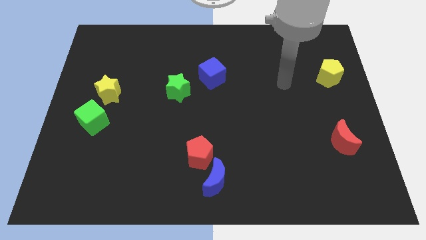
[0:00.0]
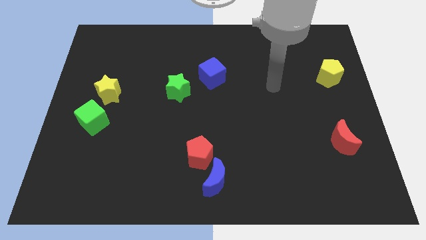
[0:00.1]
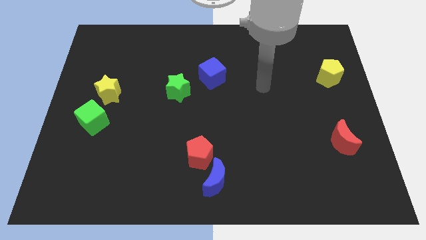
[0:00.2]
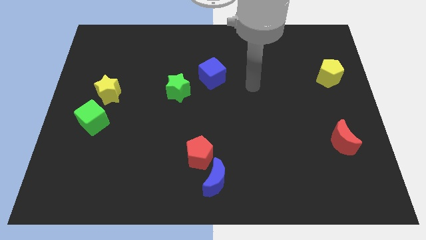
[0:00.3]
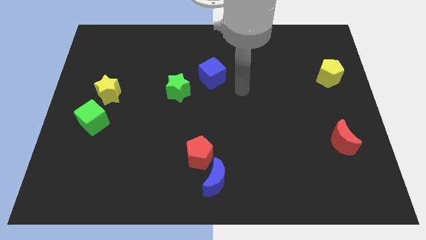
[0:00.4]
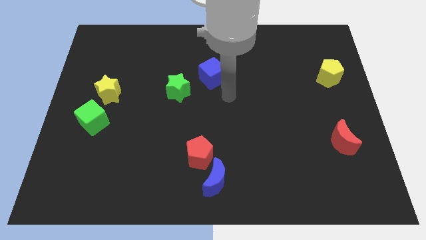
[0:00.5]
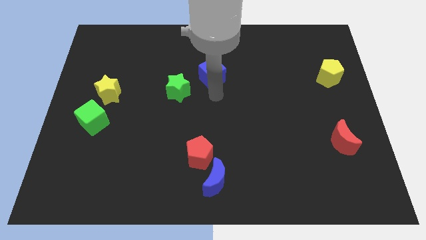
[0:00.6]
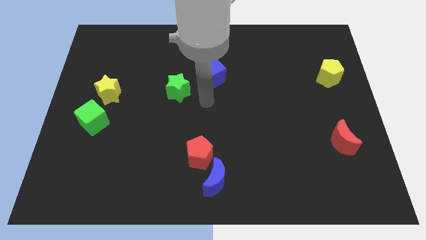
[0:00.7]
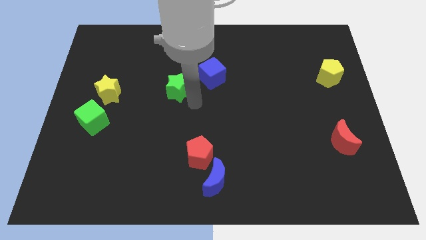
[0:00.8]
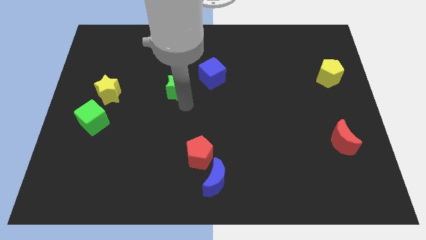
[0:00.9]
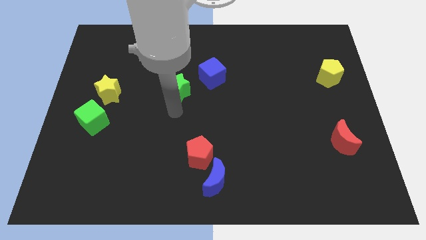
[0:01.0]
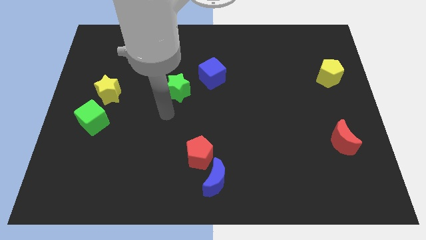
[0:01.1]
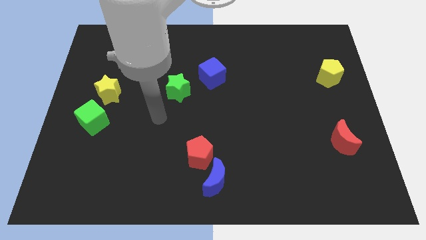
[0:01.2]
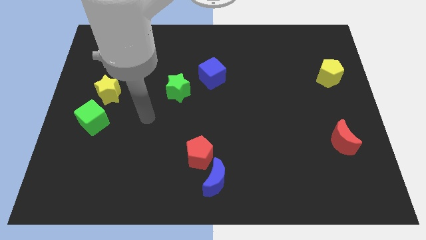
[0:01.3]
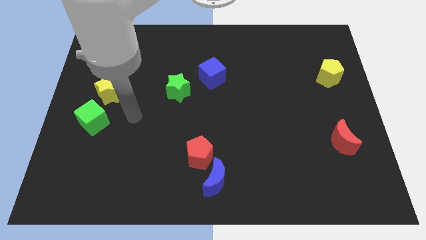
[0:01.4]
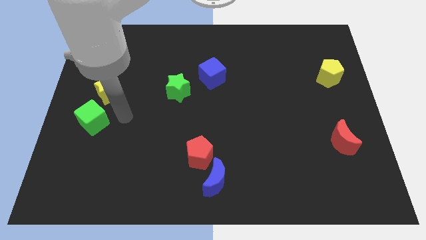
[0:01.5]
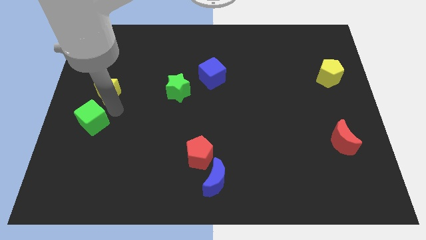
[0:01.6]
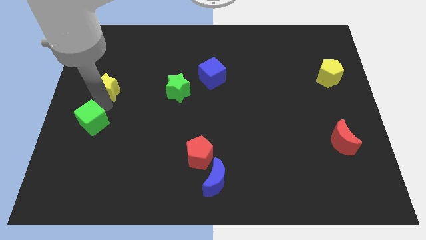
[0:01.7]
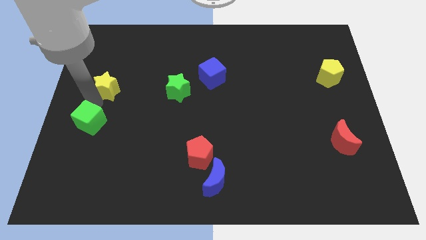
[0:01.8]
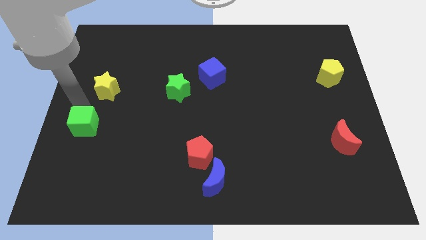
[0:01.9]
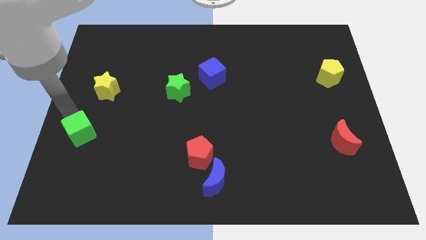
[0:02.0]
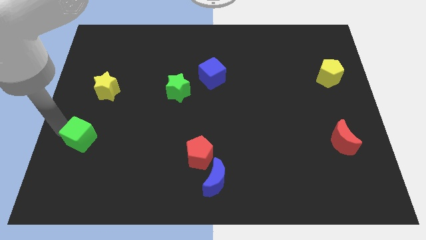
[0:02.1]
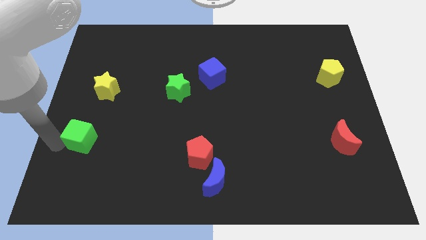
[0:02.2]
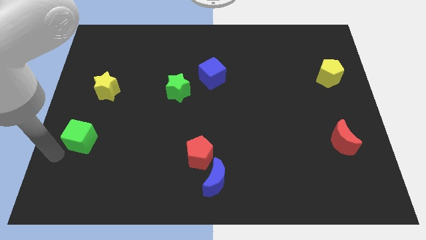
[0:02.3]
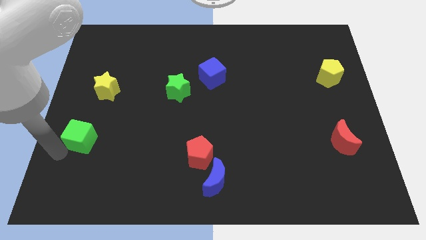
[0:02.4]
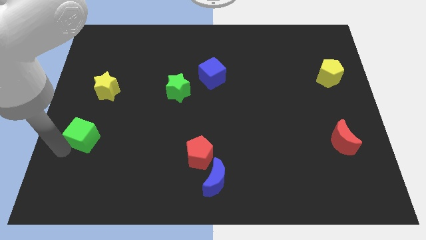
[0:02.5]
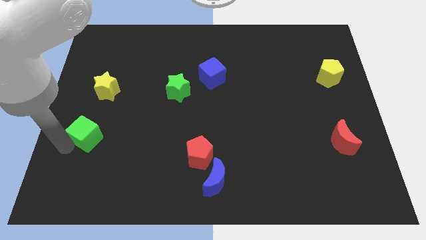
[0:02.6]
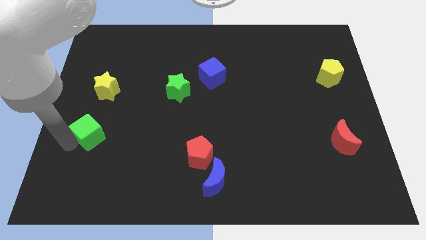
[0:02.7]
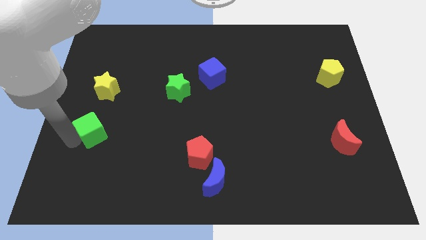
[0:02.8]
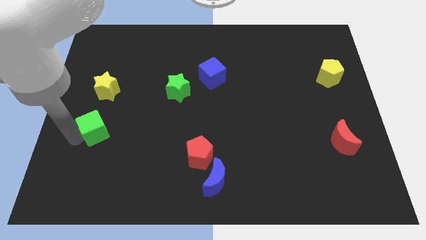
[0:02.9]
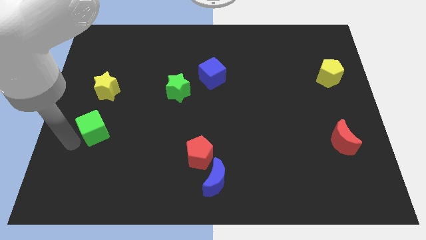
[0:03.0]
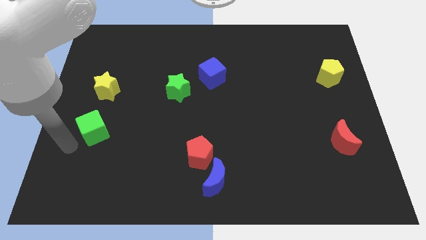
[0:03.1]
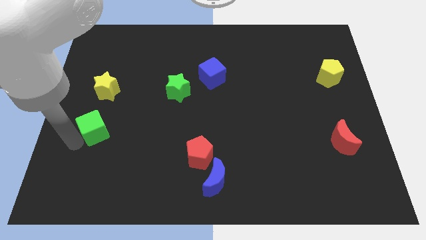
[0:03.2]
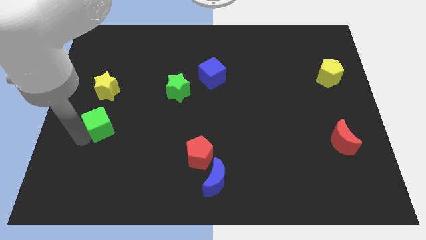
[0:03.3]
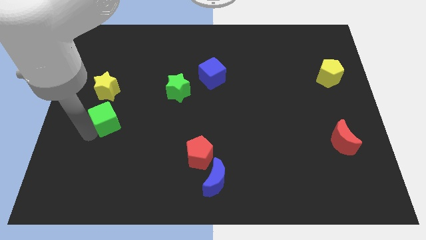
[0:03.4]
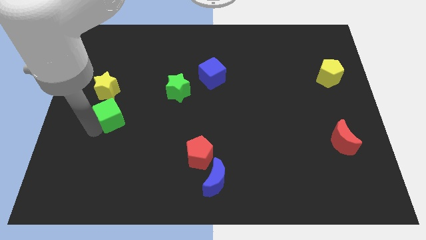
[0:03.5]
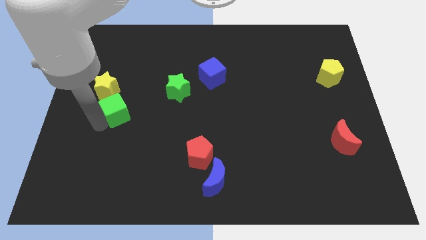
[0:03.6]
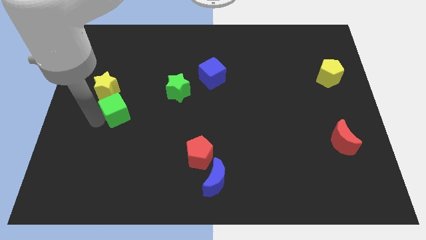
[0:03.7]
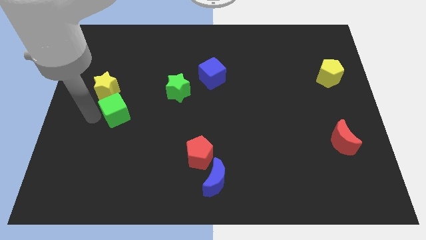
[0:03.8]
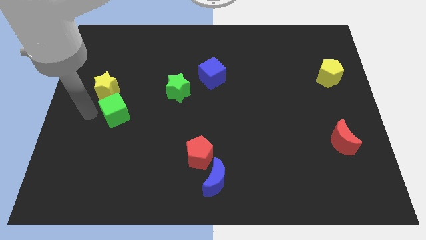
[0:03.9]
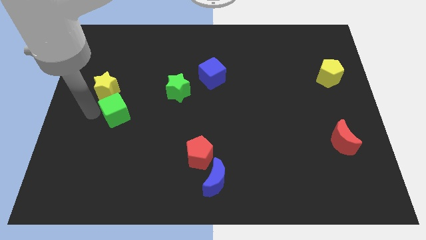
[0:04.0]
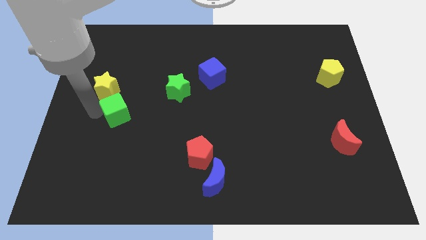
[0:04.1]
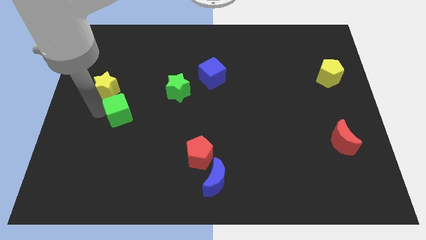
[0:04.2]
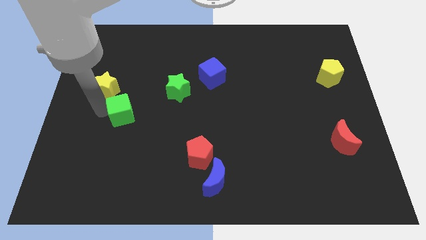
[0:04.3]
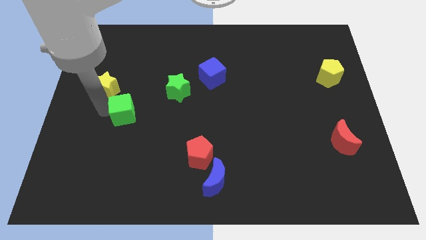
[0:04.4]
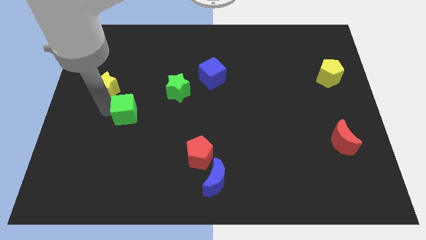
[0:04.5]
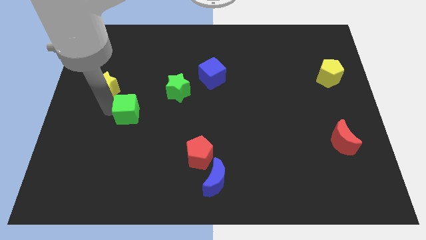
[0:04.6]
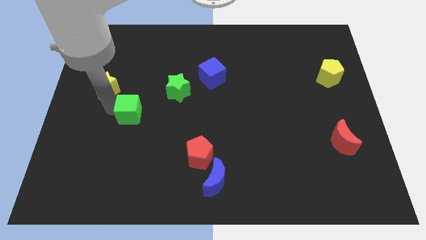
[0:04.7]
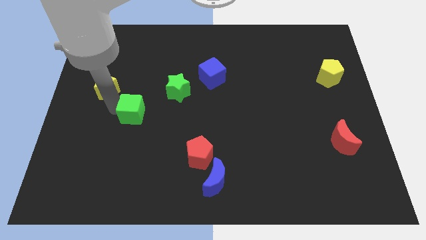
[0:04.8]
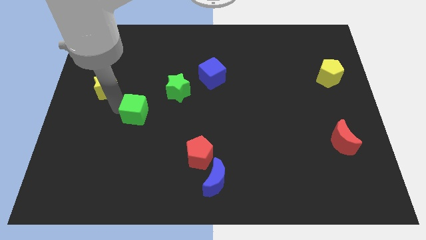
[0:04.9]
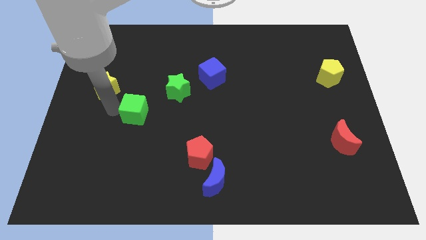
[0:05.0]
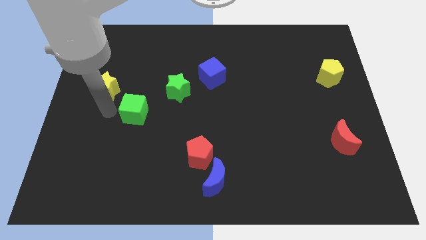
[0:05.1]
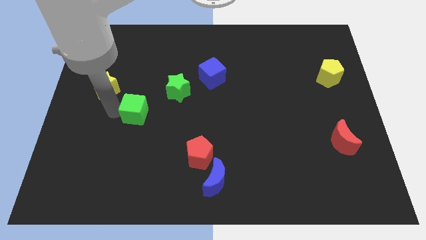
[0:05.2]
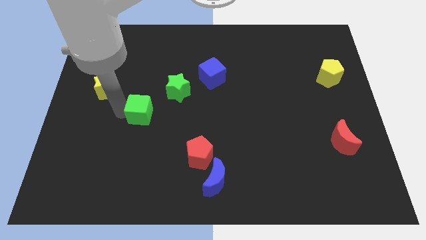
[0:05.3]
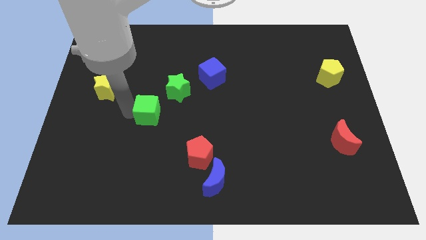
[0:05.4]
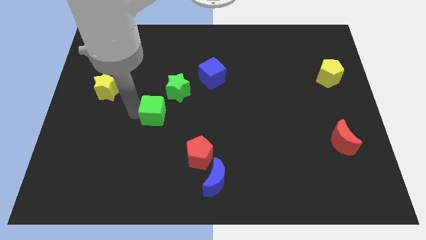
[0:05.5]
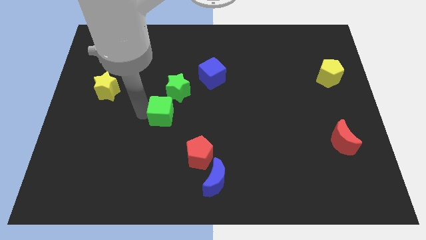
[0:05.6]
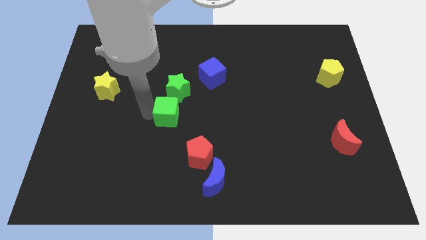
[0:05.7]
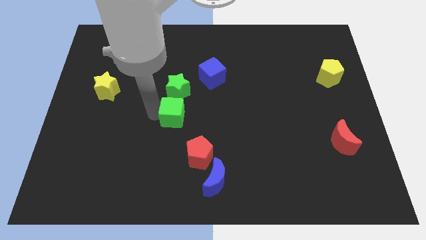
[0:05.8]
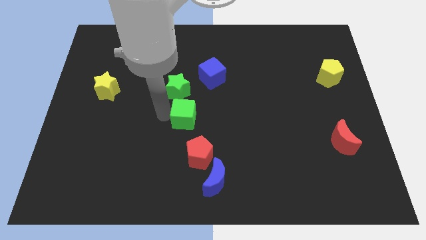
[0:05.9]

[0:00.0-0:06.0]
move the green cube right

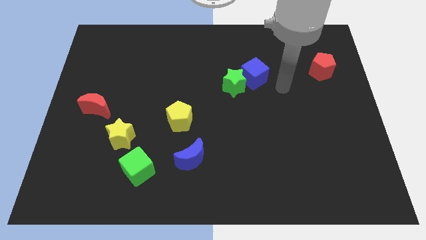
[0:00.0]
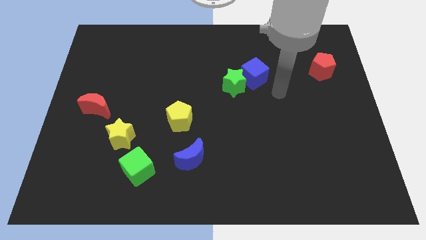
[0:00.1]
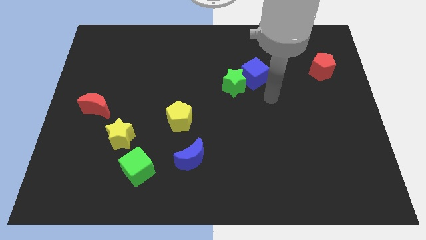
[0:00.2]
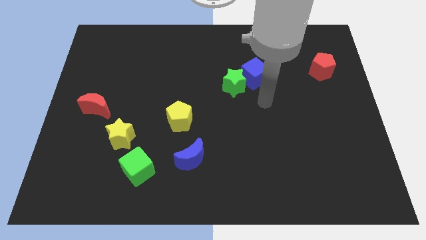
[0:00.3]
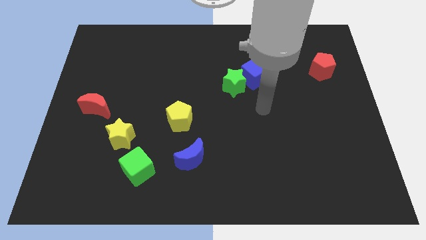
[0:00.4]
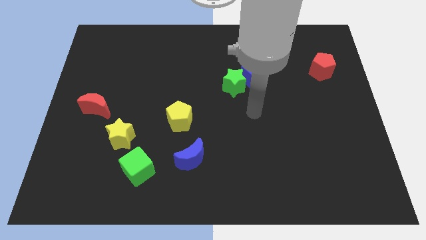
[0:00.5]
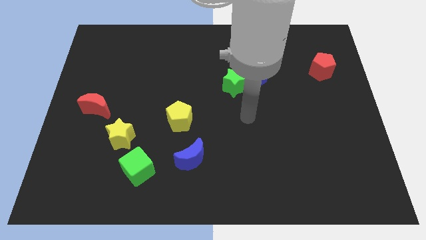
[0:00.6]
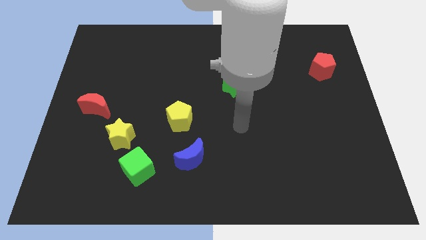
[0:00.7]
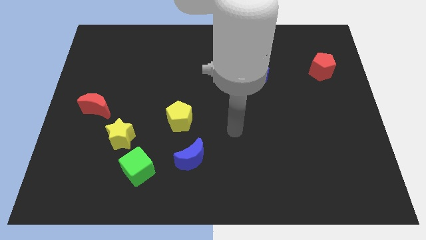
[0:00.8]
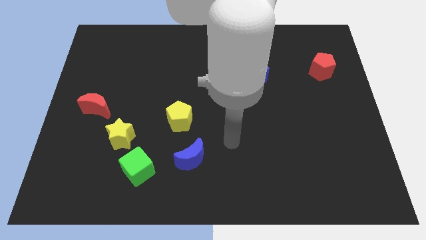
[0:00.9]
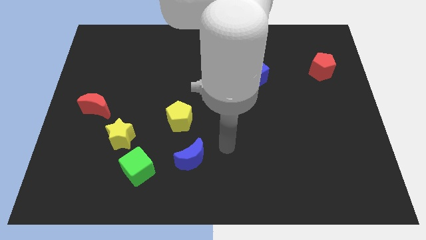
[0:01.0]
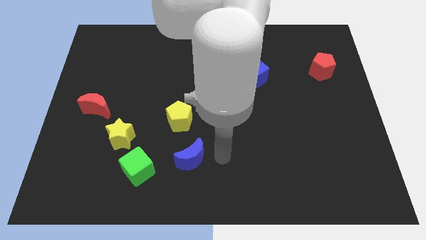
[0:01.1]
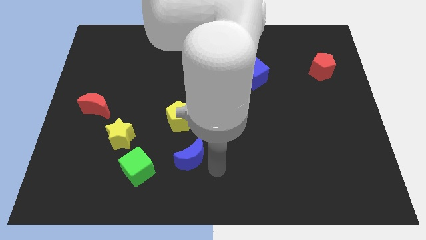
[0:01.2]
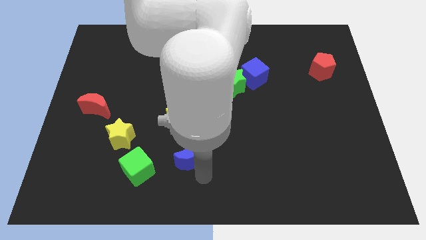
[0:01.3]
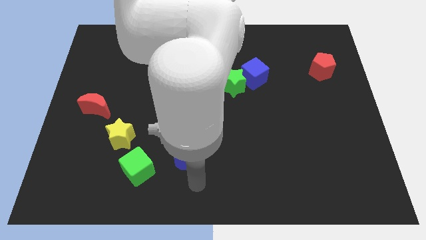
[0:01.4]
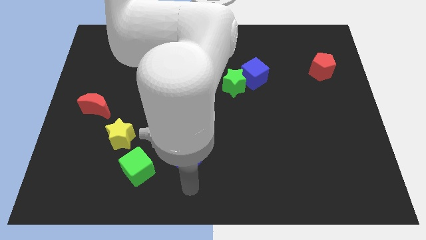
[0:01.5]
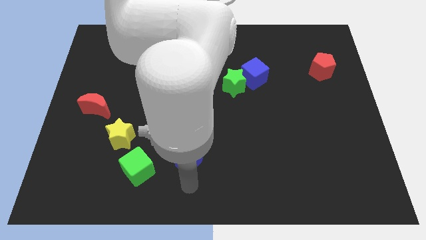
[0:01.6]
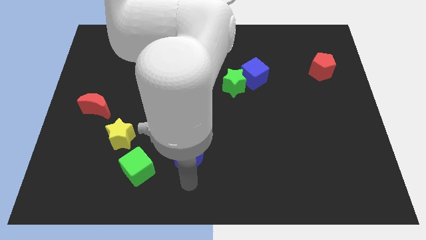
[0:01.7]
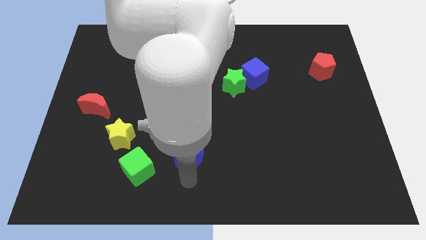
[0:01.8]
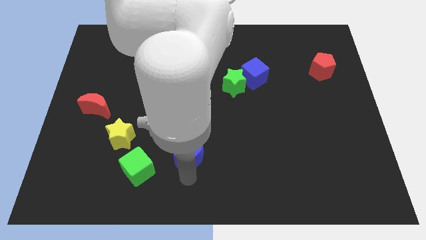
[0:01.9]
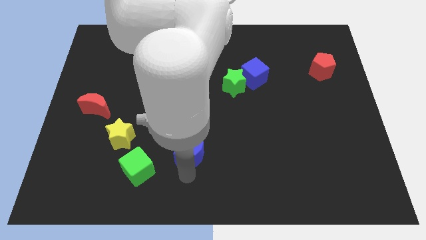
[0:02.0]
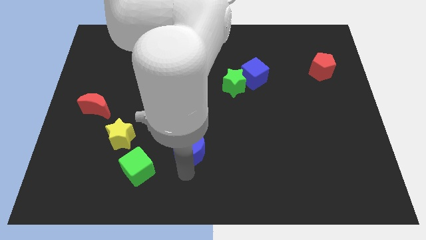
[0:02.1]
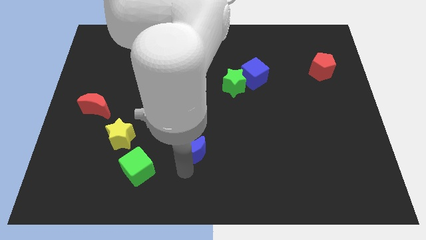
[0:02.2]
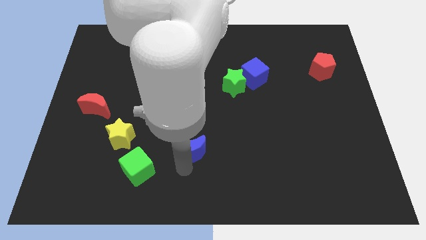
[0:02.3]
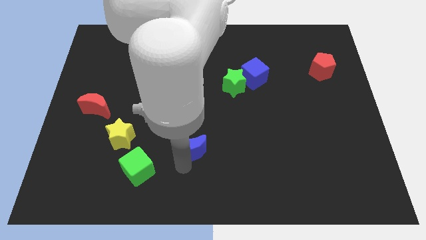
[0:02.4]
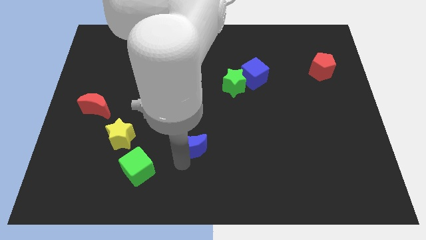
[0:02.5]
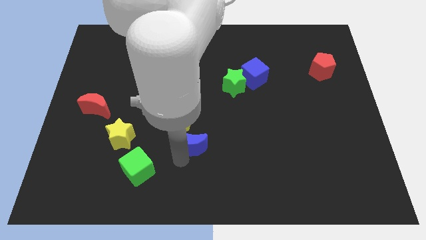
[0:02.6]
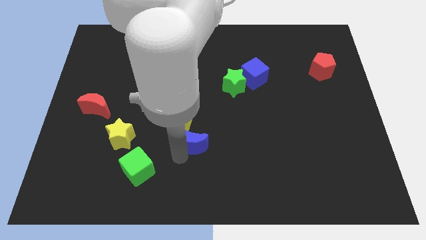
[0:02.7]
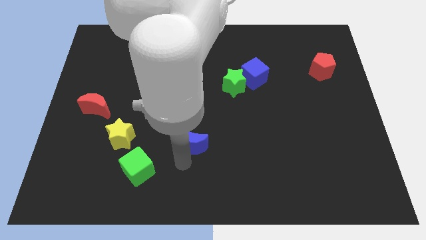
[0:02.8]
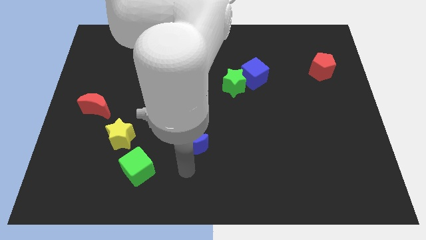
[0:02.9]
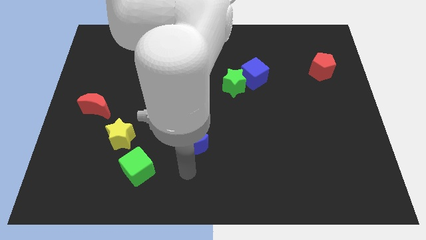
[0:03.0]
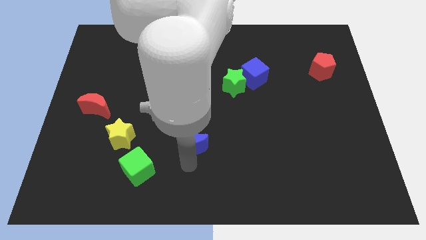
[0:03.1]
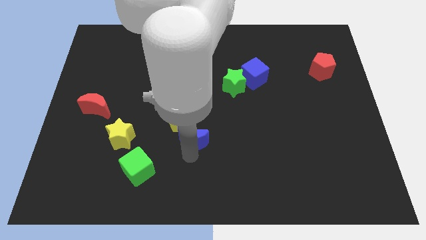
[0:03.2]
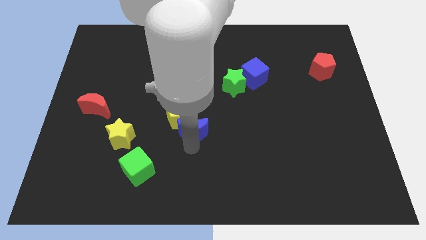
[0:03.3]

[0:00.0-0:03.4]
move the blue moon a little bit up
